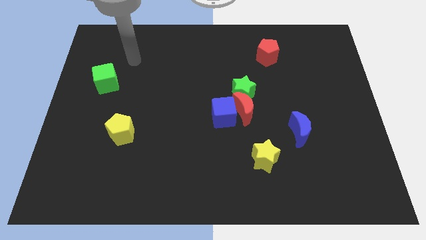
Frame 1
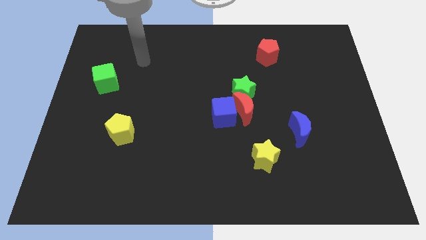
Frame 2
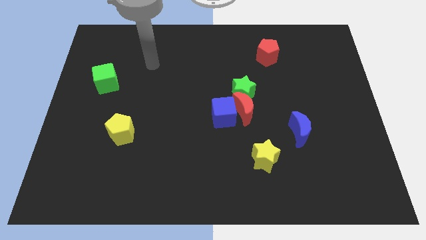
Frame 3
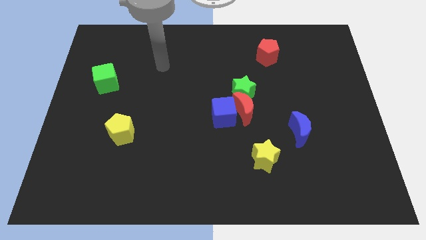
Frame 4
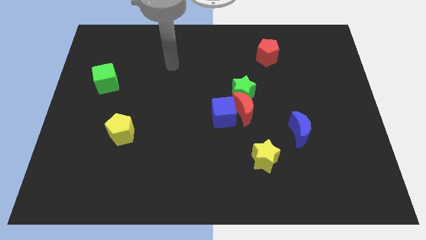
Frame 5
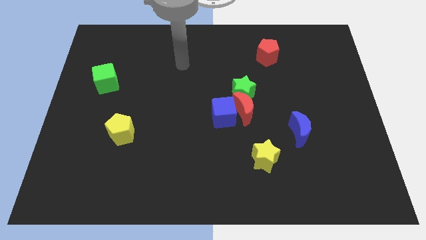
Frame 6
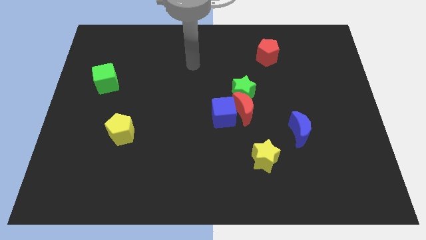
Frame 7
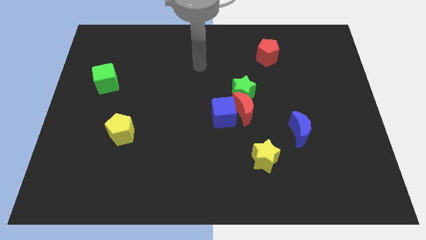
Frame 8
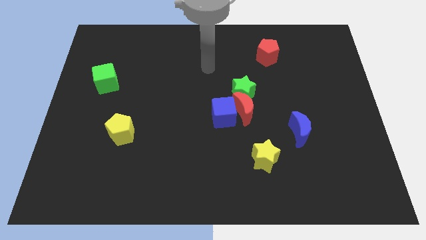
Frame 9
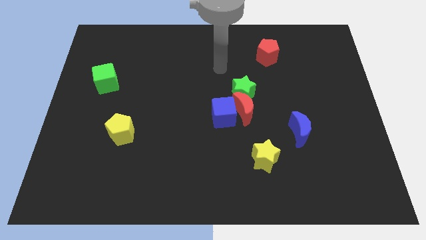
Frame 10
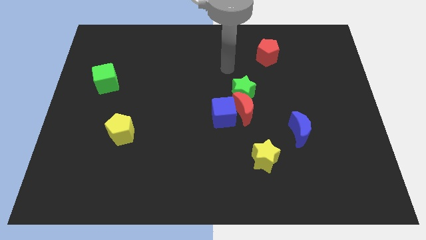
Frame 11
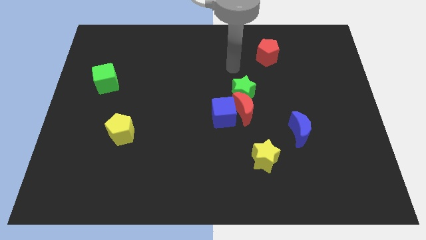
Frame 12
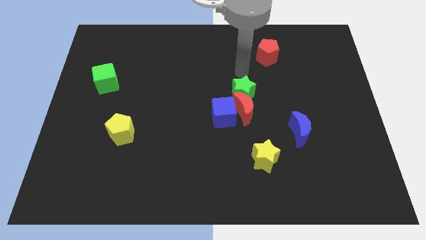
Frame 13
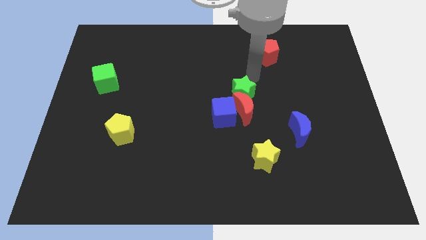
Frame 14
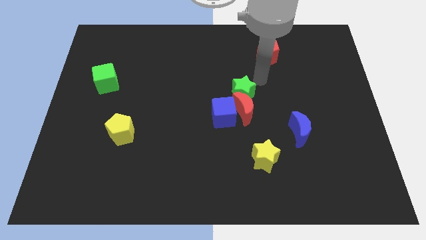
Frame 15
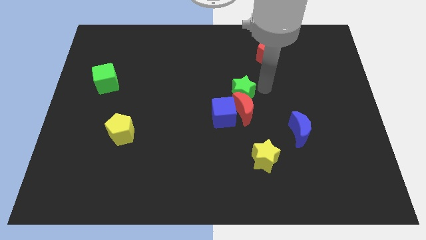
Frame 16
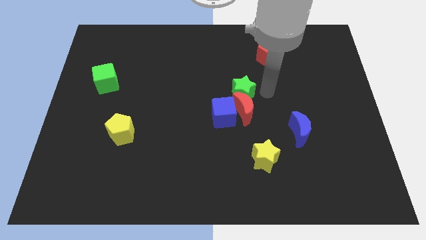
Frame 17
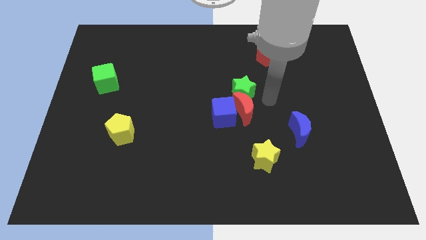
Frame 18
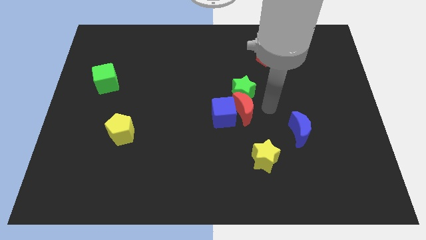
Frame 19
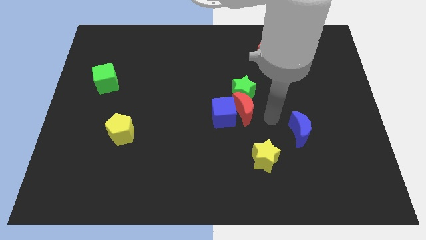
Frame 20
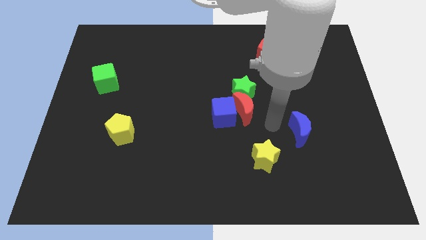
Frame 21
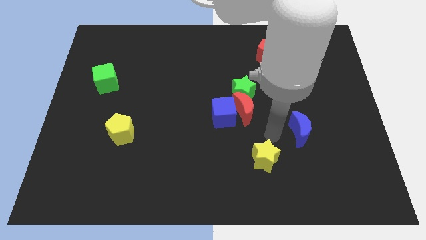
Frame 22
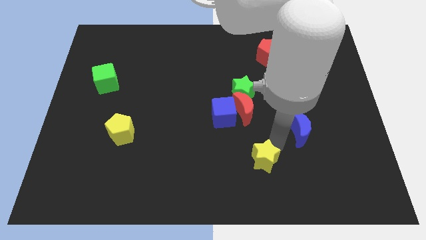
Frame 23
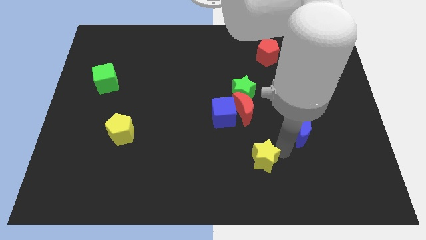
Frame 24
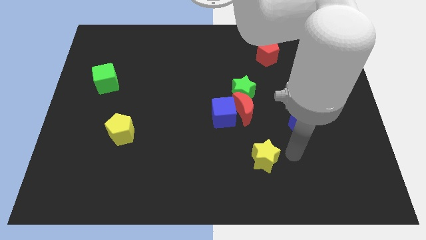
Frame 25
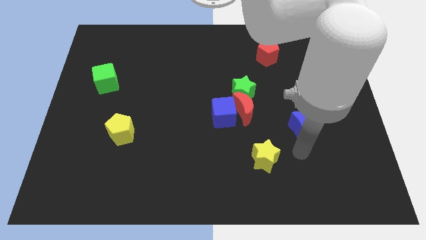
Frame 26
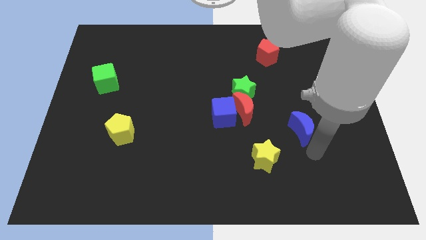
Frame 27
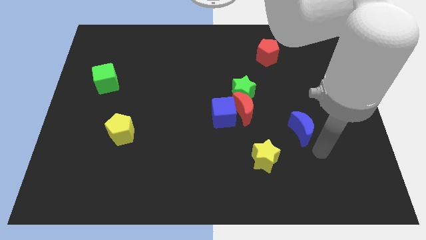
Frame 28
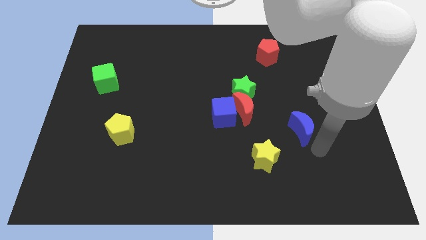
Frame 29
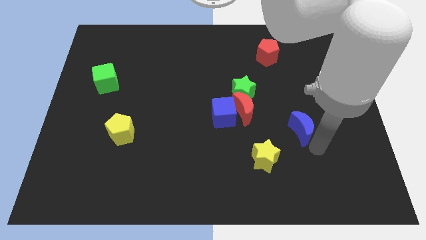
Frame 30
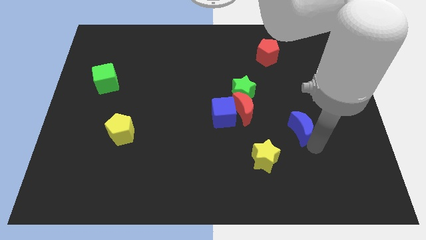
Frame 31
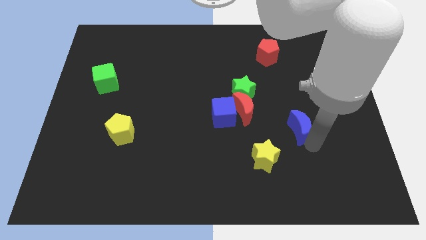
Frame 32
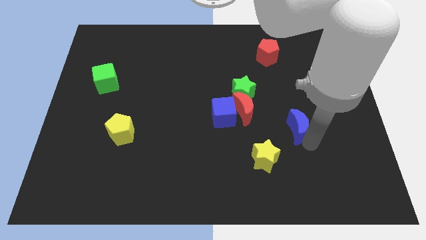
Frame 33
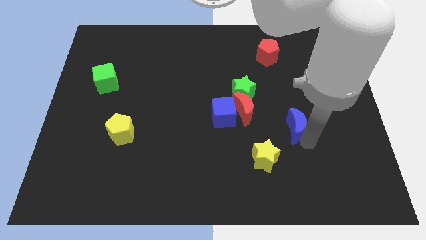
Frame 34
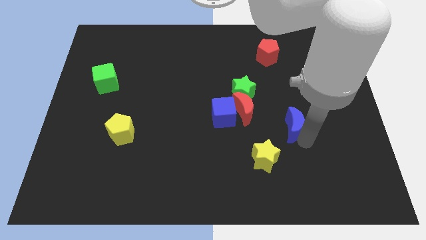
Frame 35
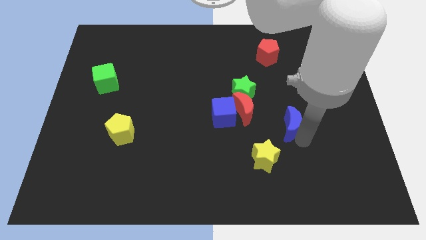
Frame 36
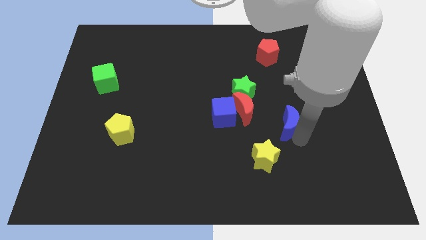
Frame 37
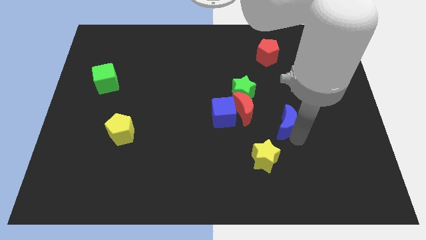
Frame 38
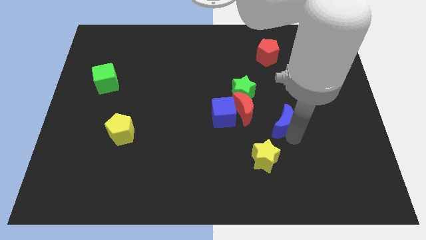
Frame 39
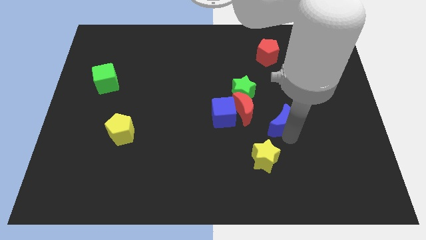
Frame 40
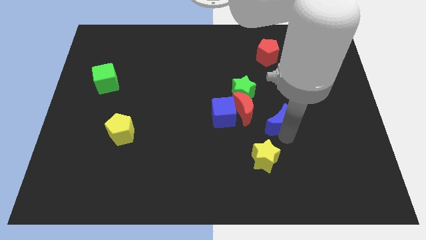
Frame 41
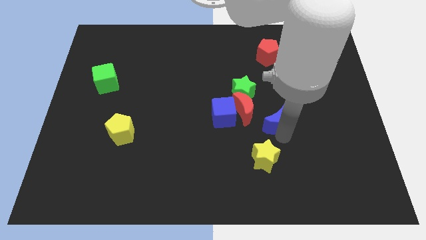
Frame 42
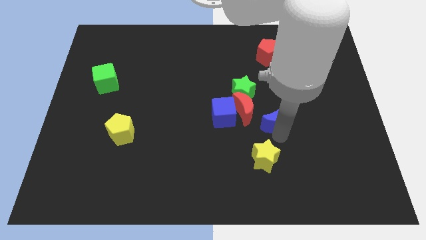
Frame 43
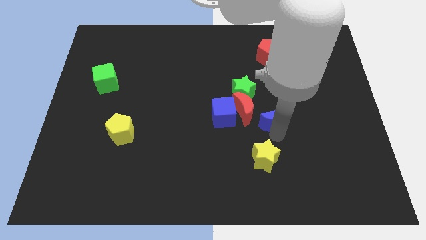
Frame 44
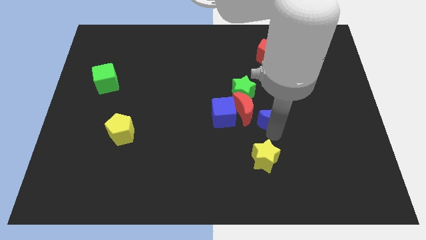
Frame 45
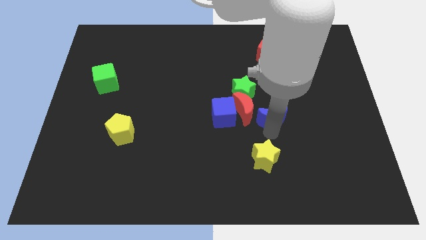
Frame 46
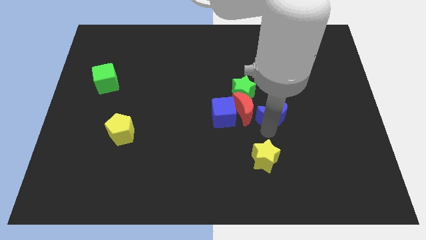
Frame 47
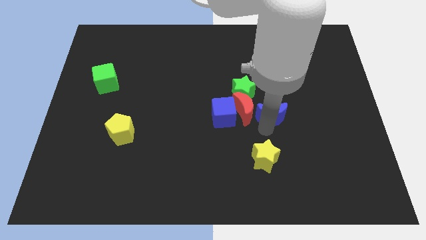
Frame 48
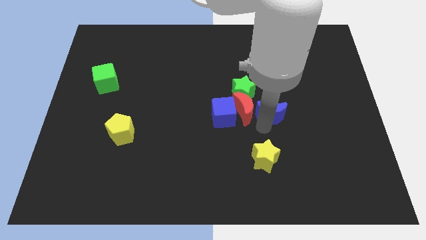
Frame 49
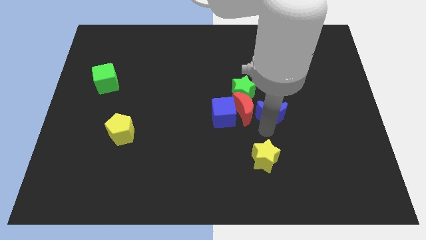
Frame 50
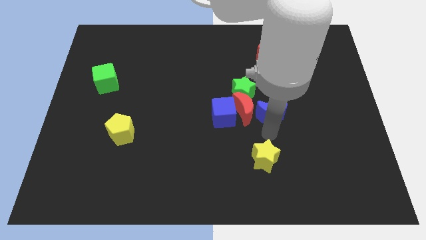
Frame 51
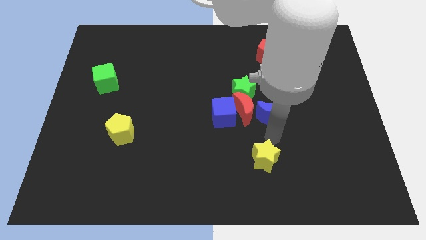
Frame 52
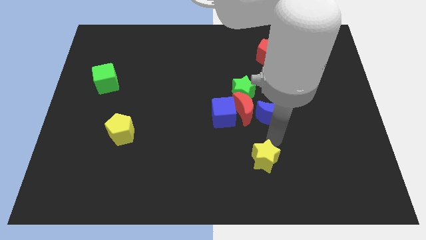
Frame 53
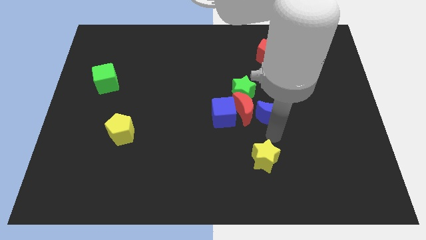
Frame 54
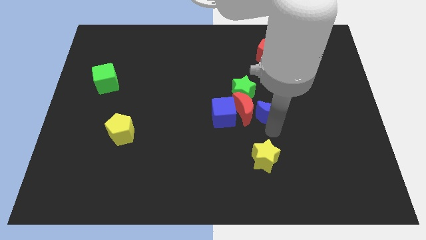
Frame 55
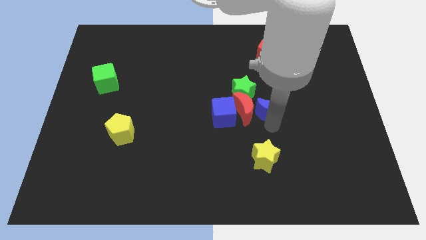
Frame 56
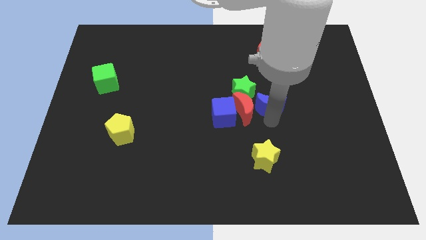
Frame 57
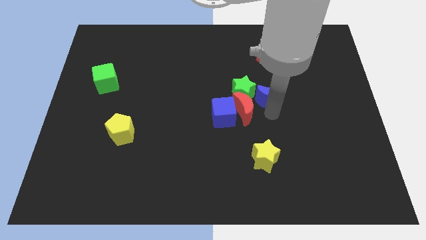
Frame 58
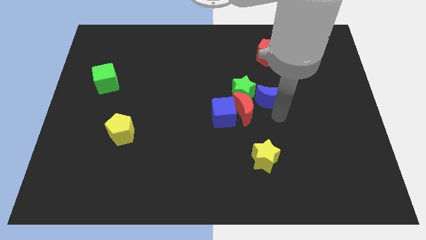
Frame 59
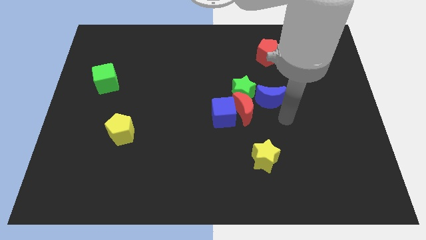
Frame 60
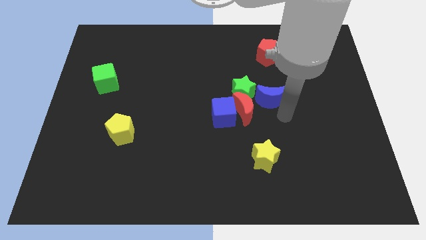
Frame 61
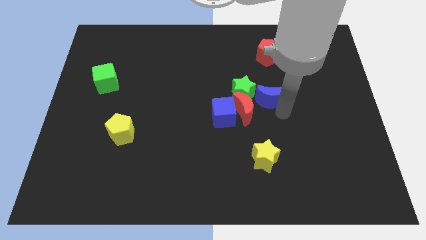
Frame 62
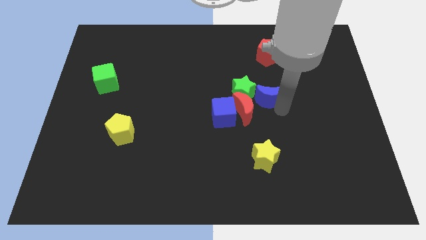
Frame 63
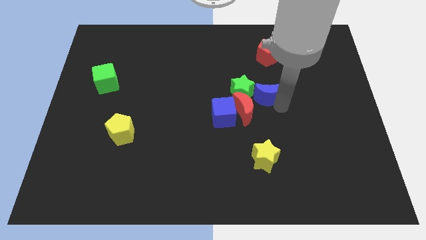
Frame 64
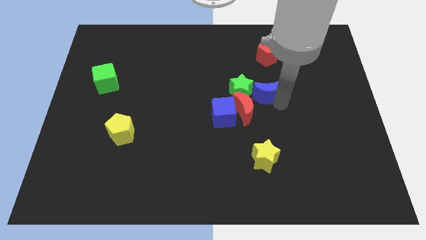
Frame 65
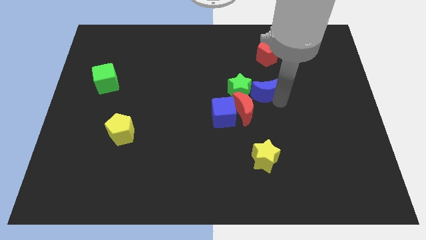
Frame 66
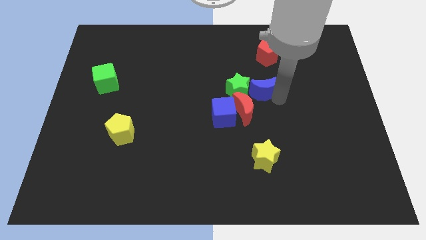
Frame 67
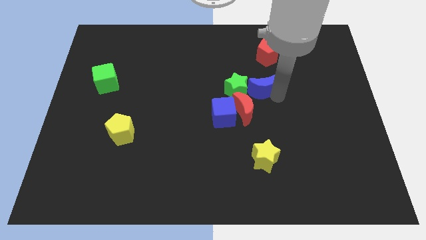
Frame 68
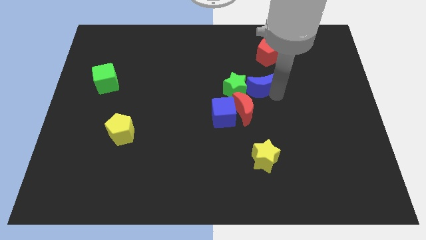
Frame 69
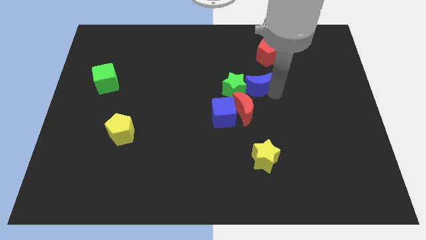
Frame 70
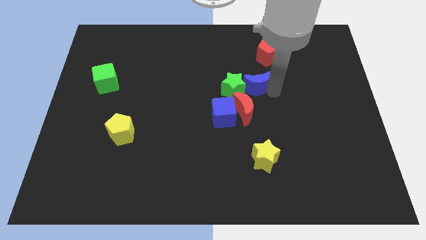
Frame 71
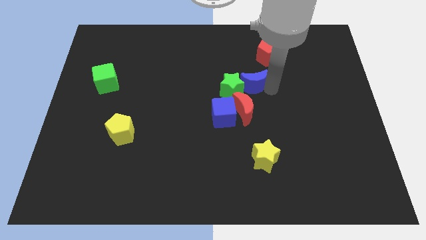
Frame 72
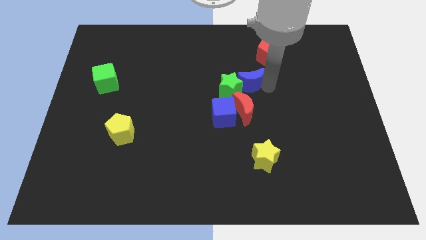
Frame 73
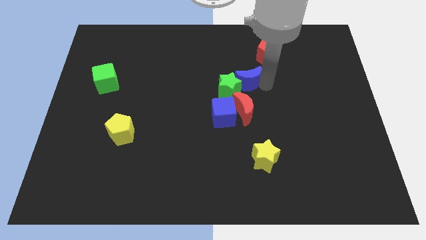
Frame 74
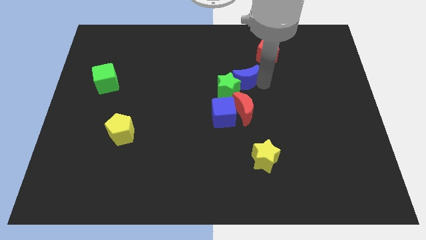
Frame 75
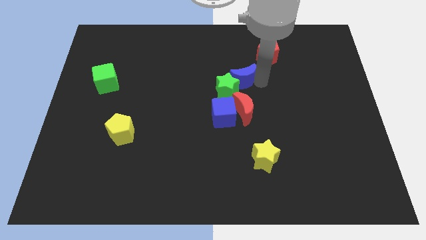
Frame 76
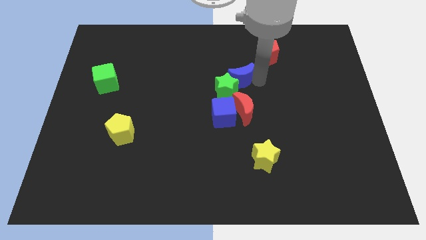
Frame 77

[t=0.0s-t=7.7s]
slide the blue moon up and then to the left

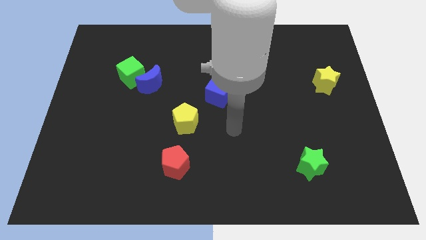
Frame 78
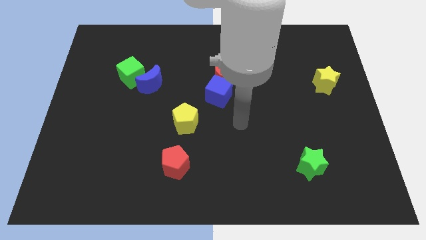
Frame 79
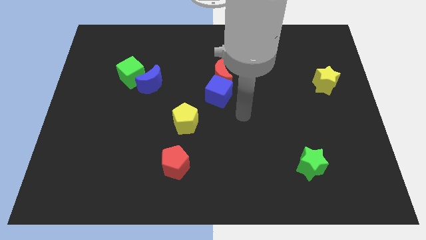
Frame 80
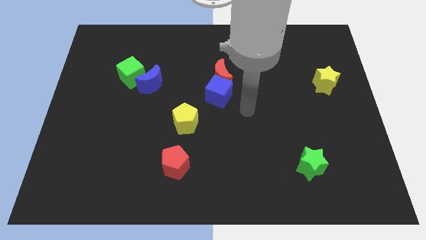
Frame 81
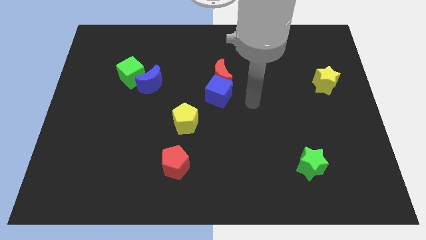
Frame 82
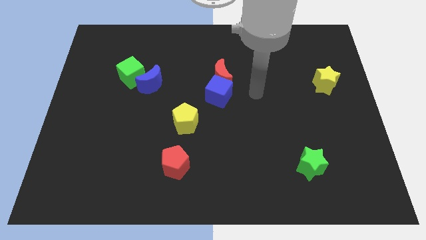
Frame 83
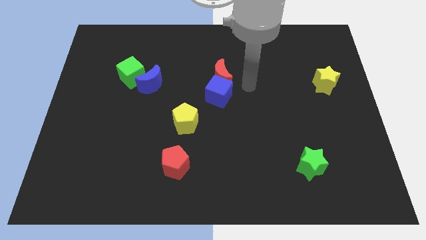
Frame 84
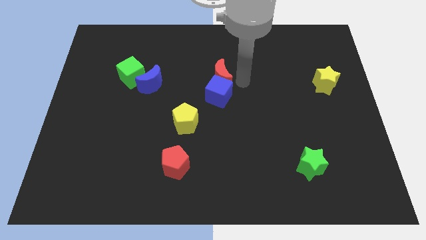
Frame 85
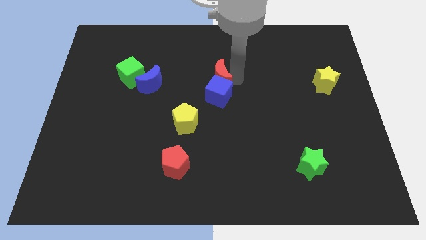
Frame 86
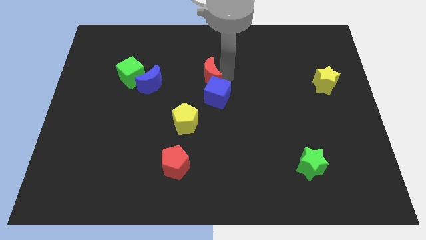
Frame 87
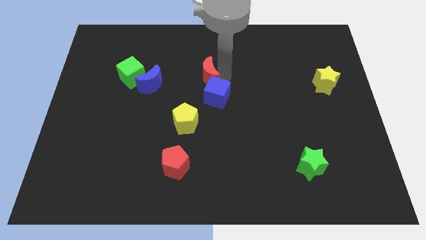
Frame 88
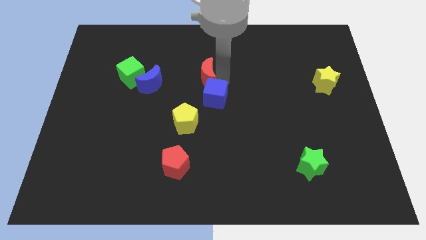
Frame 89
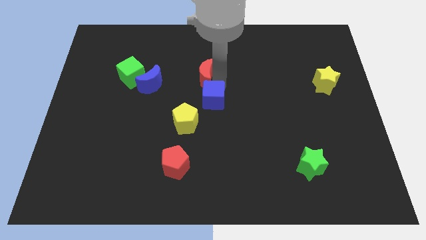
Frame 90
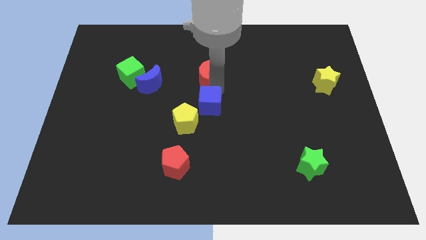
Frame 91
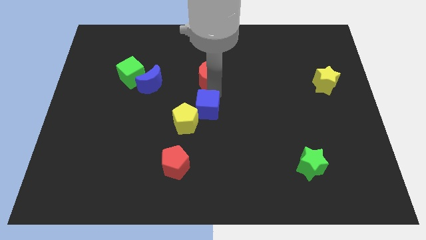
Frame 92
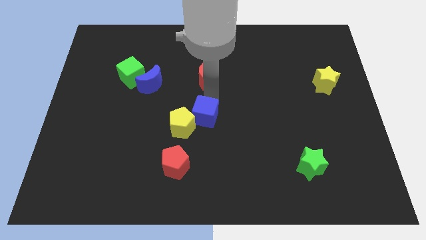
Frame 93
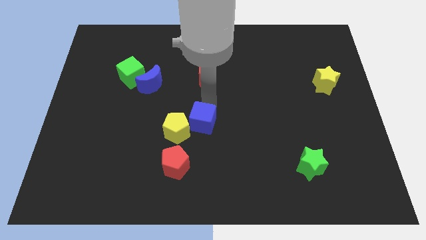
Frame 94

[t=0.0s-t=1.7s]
push the blue cube a little bit down and left
